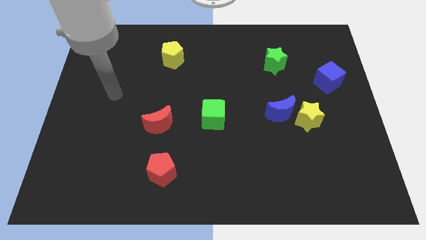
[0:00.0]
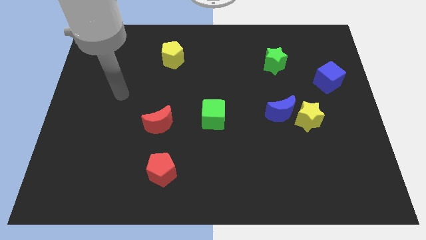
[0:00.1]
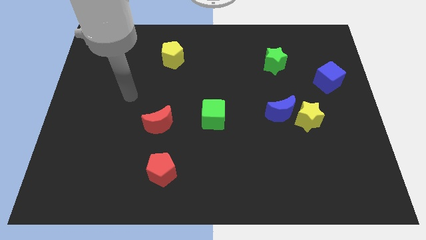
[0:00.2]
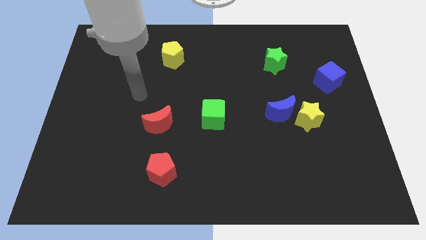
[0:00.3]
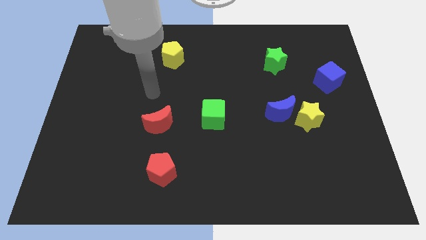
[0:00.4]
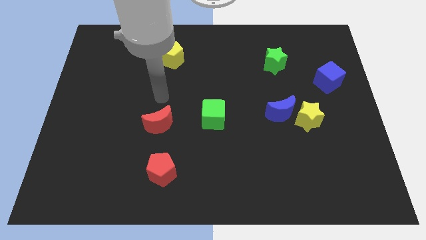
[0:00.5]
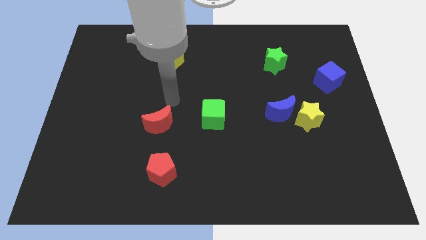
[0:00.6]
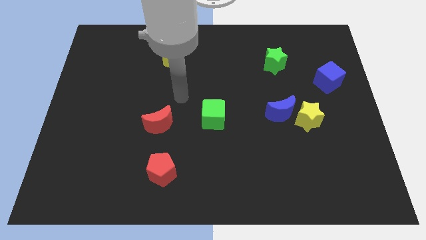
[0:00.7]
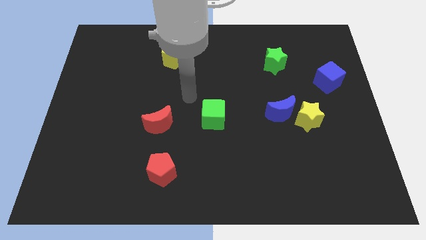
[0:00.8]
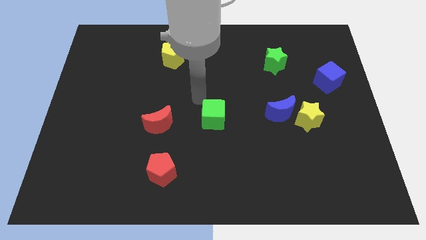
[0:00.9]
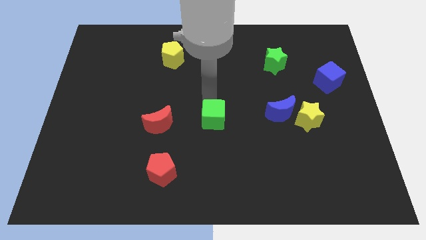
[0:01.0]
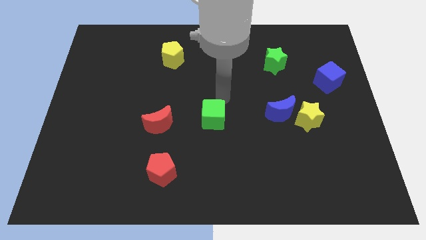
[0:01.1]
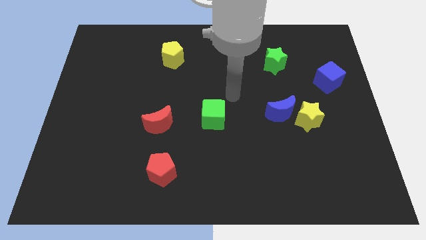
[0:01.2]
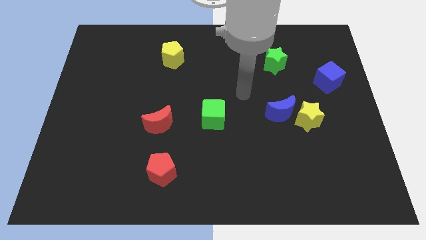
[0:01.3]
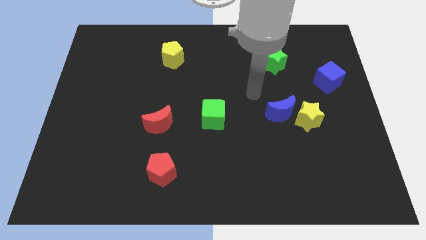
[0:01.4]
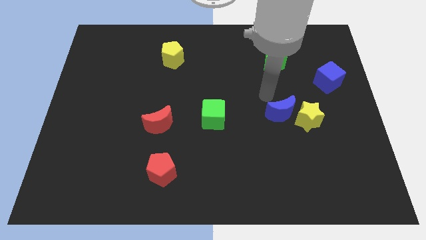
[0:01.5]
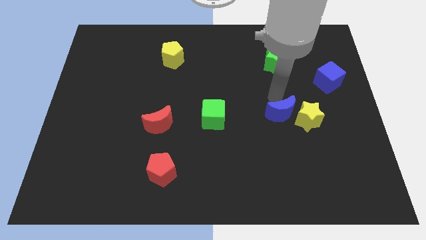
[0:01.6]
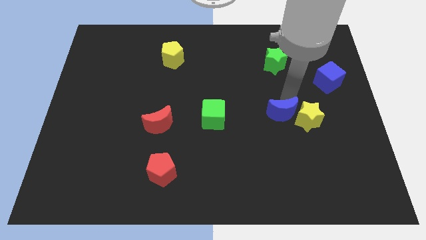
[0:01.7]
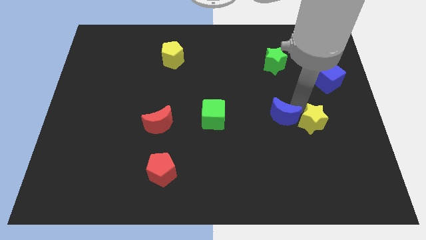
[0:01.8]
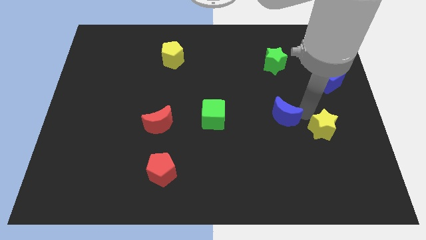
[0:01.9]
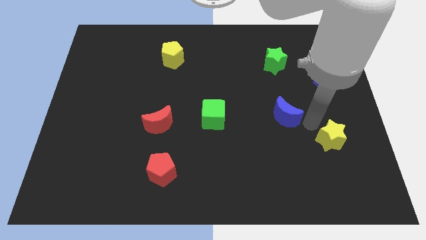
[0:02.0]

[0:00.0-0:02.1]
pull the blue moon apart from the yellow star

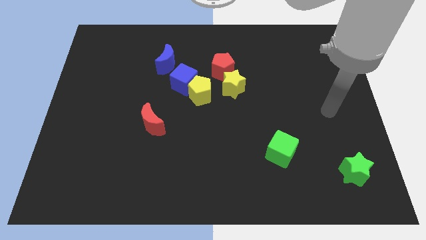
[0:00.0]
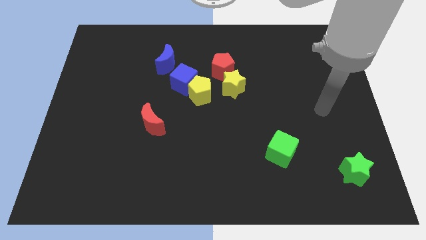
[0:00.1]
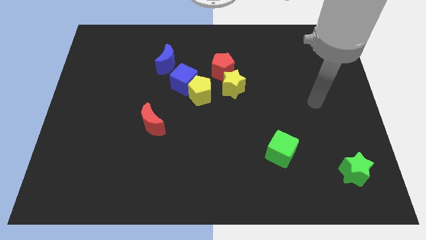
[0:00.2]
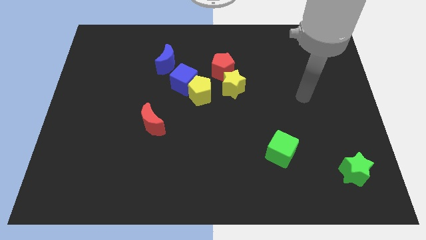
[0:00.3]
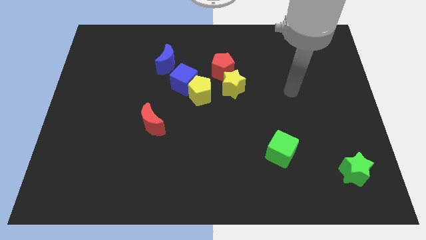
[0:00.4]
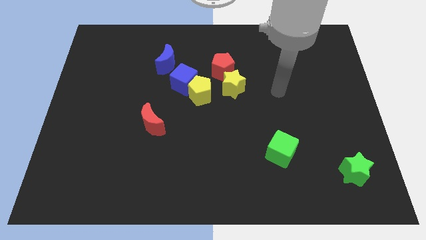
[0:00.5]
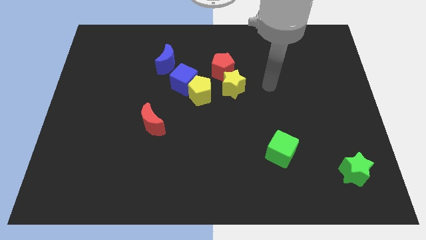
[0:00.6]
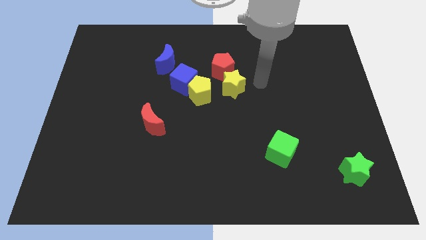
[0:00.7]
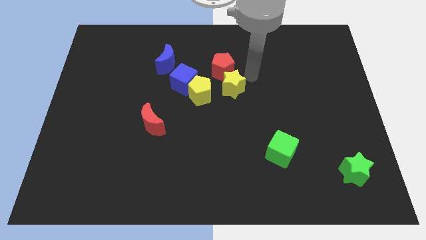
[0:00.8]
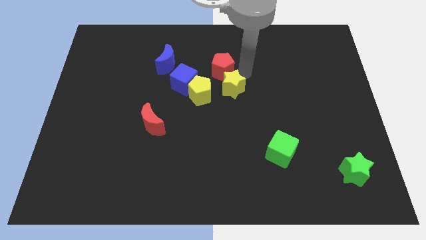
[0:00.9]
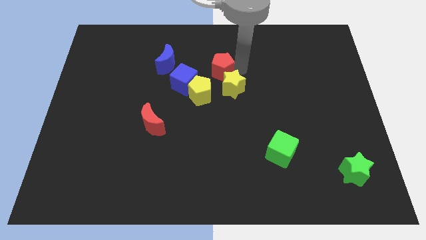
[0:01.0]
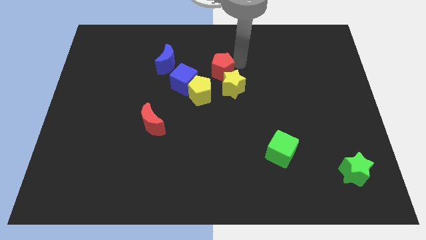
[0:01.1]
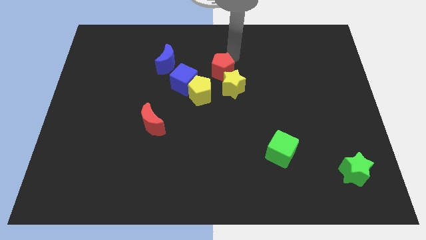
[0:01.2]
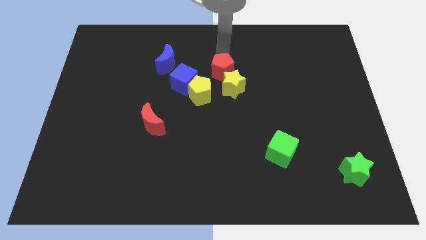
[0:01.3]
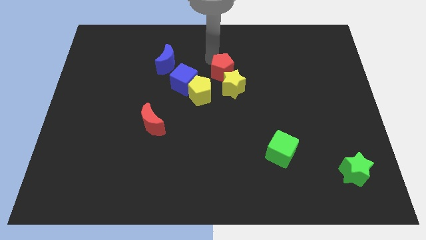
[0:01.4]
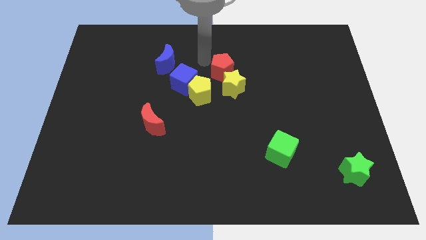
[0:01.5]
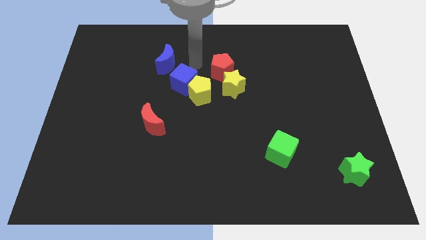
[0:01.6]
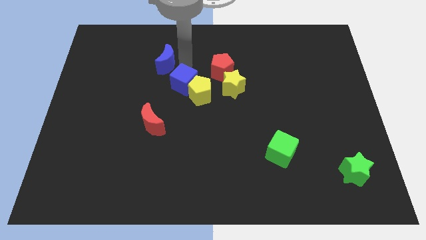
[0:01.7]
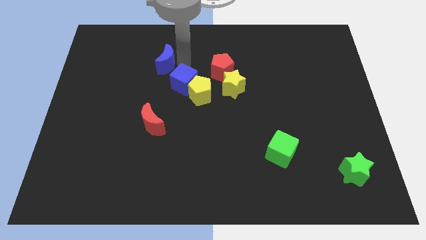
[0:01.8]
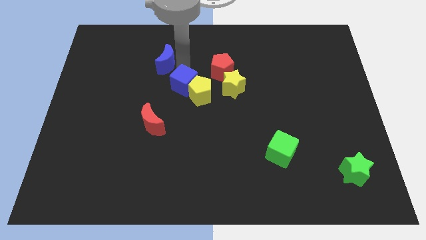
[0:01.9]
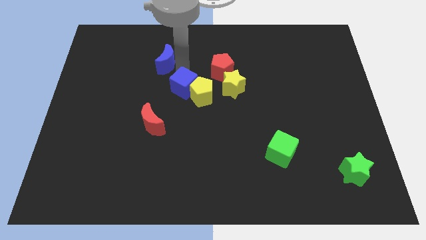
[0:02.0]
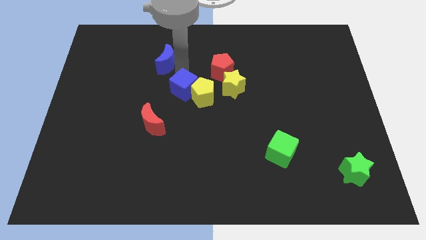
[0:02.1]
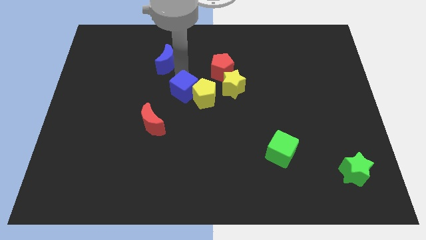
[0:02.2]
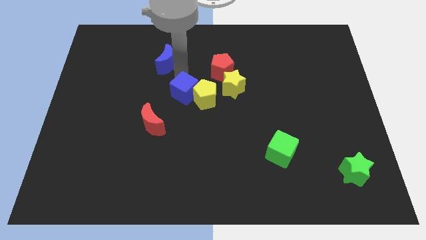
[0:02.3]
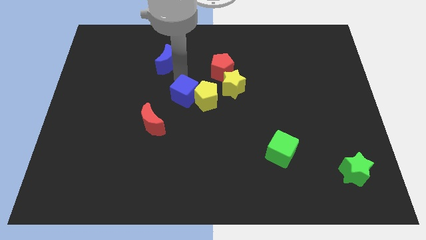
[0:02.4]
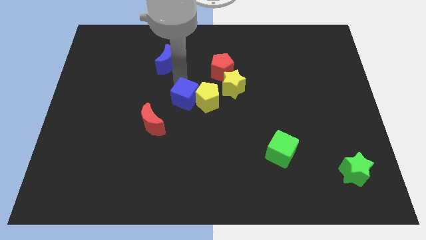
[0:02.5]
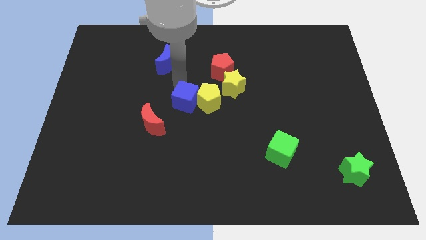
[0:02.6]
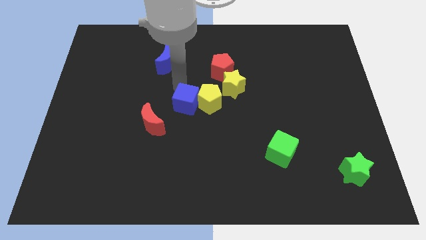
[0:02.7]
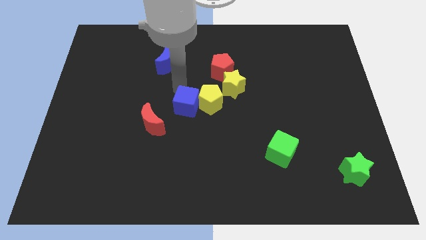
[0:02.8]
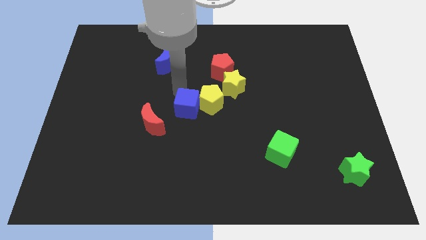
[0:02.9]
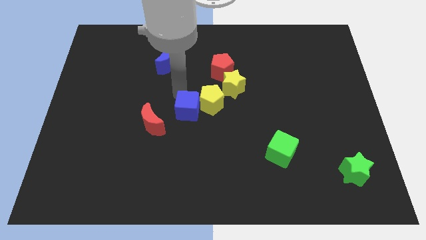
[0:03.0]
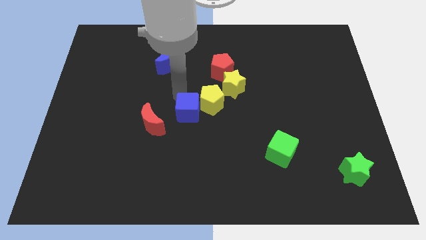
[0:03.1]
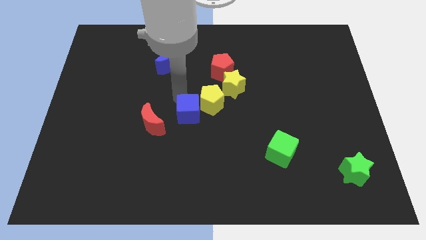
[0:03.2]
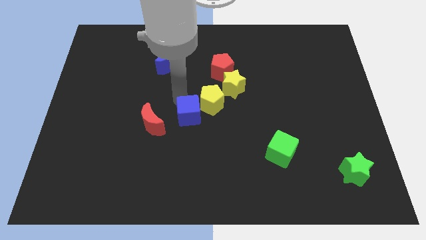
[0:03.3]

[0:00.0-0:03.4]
separate the blue cube from the yellow pentagon and blue moon

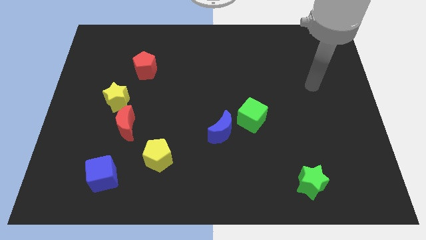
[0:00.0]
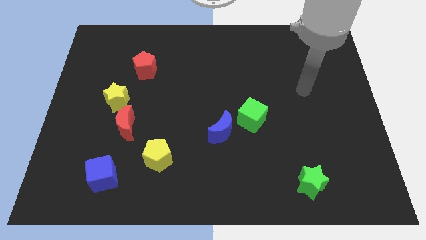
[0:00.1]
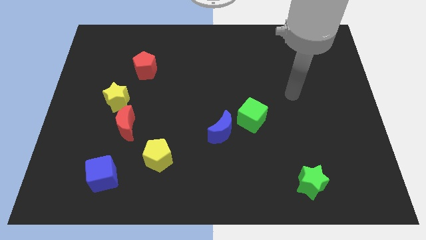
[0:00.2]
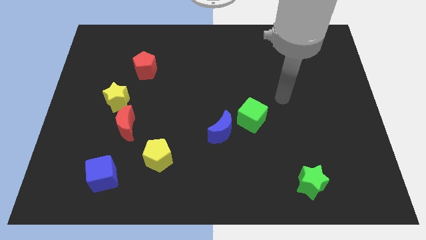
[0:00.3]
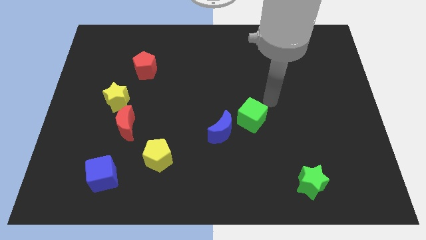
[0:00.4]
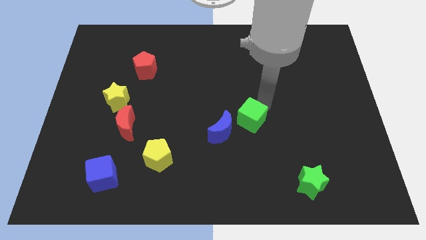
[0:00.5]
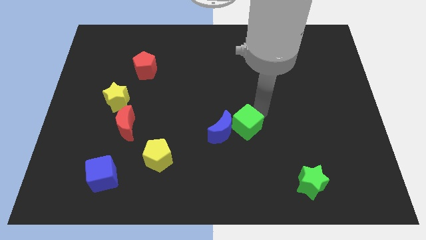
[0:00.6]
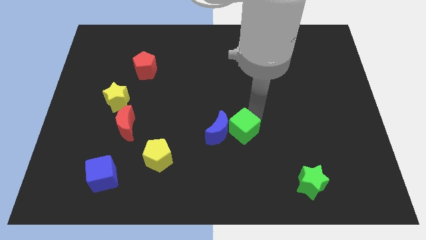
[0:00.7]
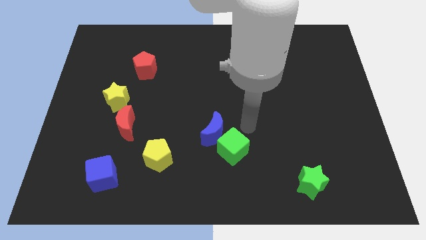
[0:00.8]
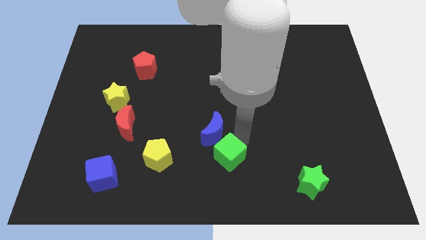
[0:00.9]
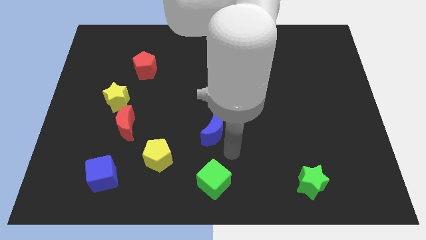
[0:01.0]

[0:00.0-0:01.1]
move the blue moon away from the green cube

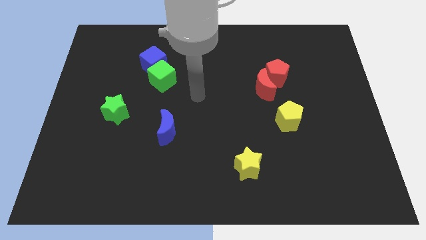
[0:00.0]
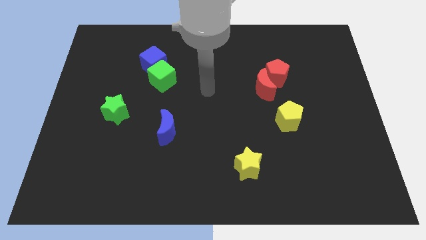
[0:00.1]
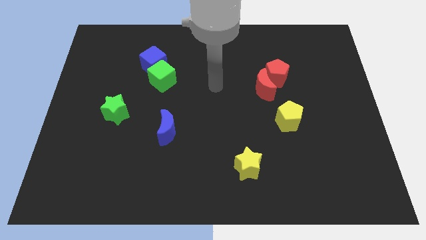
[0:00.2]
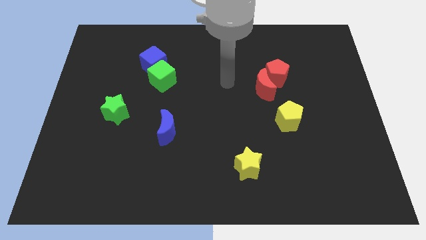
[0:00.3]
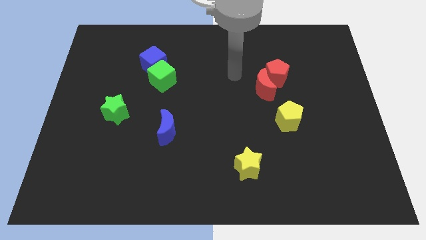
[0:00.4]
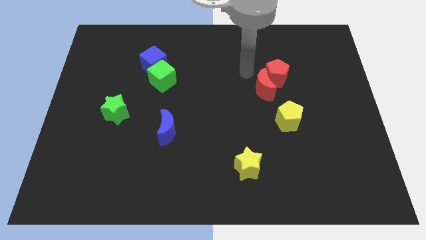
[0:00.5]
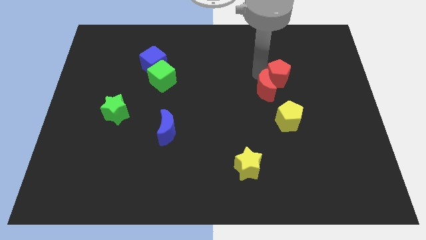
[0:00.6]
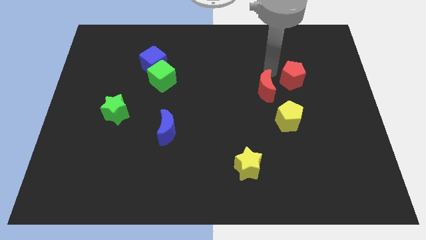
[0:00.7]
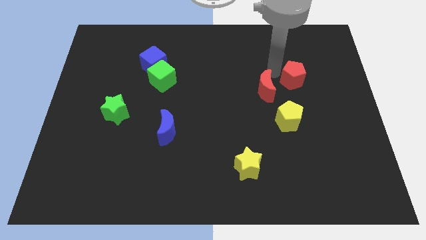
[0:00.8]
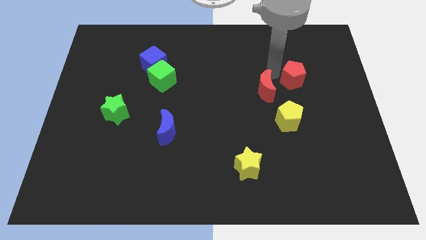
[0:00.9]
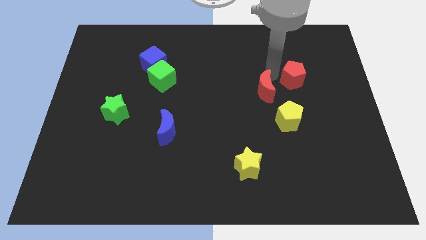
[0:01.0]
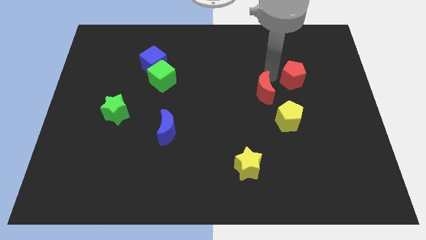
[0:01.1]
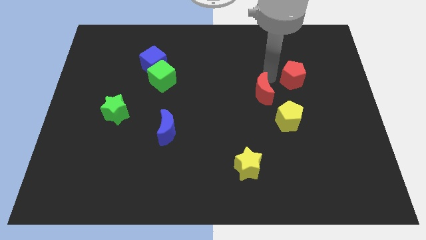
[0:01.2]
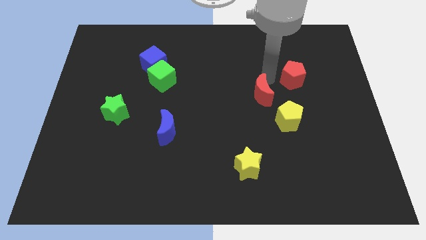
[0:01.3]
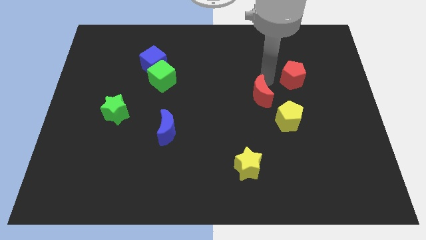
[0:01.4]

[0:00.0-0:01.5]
separate the red moon from the red pentagon

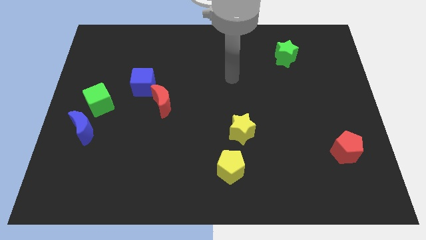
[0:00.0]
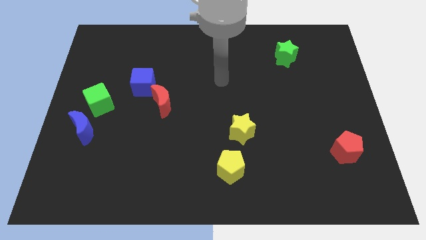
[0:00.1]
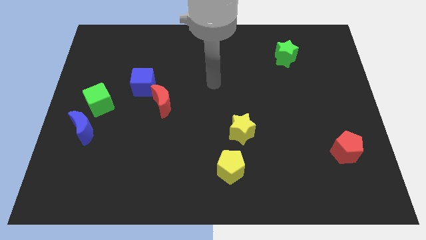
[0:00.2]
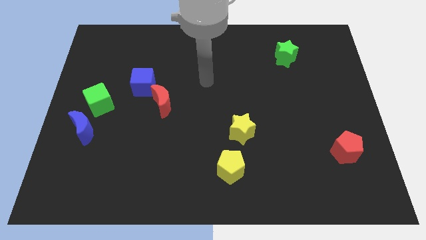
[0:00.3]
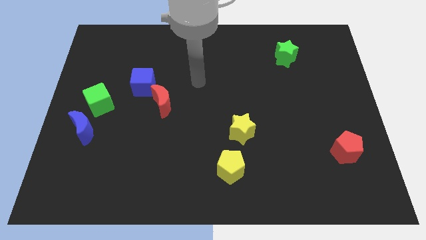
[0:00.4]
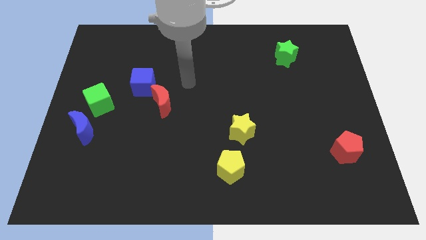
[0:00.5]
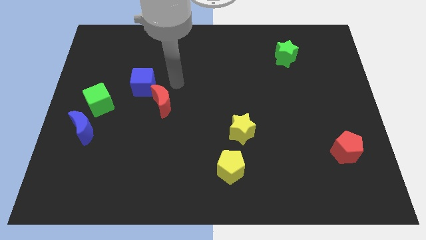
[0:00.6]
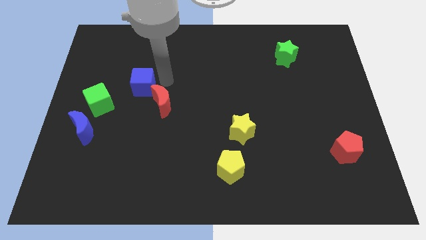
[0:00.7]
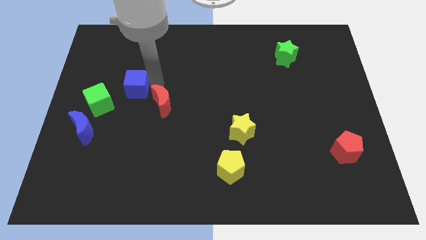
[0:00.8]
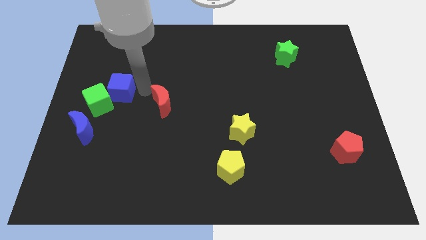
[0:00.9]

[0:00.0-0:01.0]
move the red moon away from the blue cube

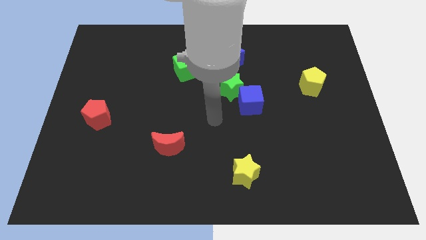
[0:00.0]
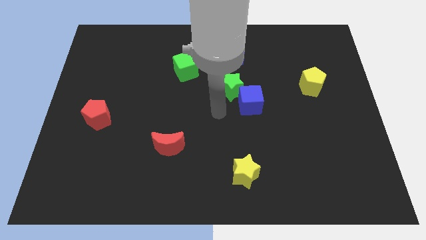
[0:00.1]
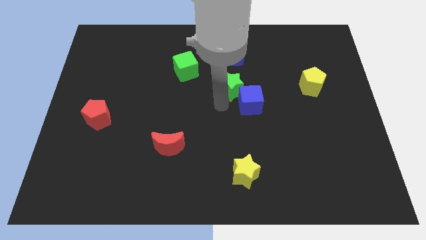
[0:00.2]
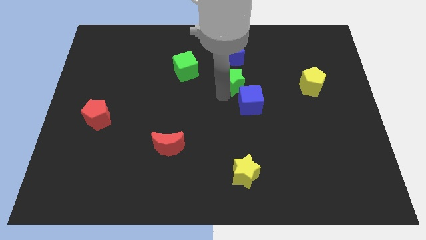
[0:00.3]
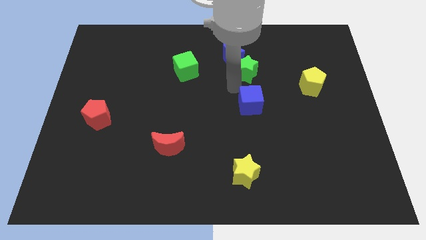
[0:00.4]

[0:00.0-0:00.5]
pull the blue cube apart from the green star
